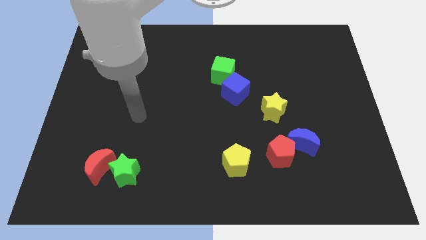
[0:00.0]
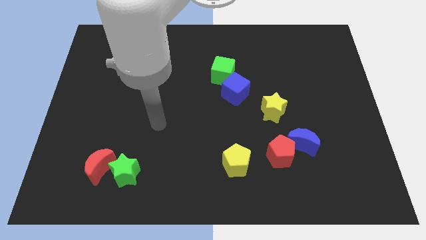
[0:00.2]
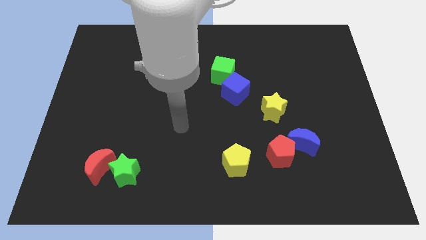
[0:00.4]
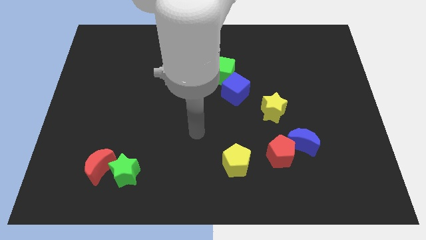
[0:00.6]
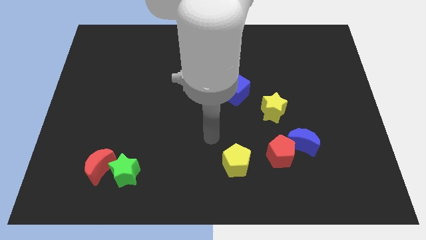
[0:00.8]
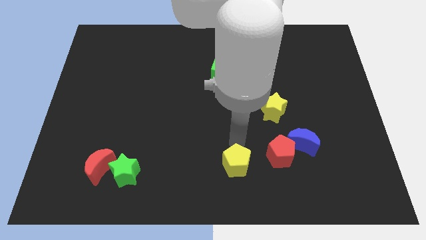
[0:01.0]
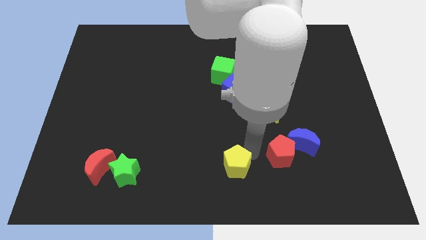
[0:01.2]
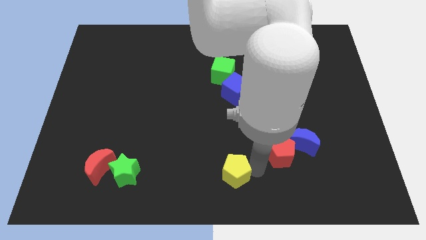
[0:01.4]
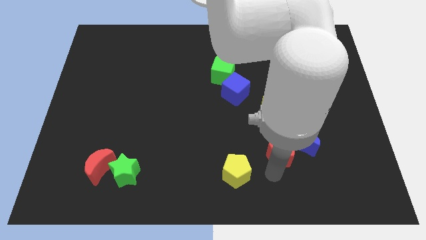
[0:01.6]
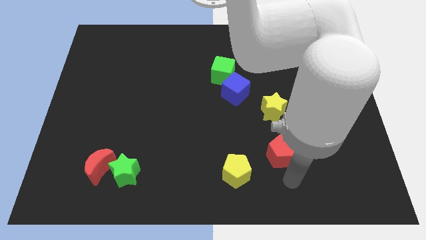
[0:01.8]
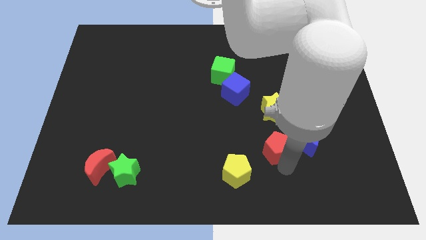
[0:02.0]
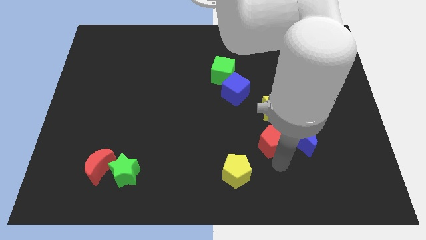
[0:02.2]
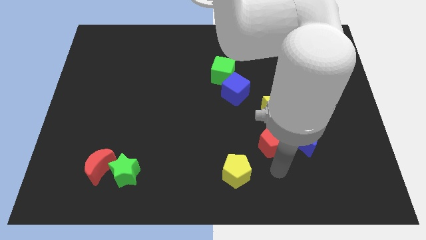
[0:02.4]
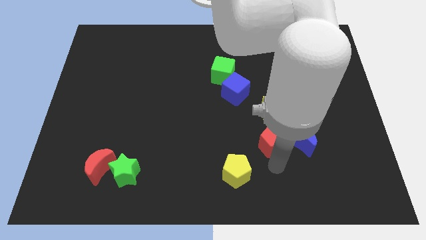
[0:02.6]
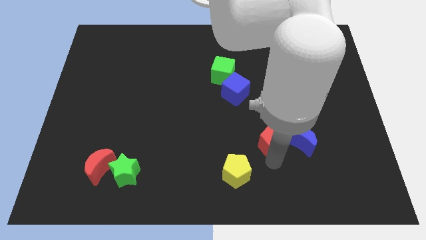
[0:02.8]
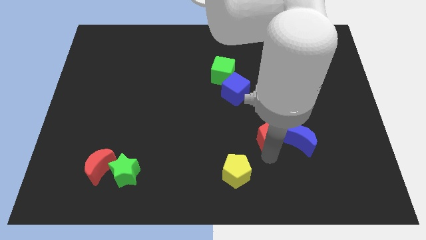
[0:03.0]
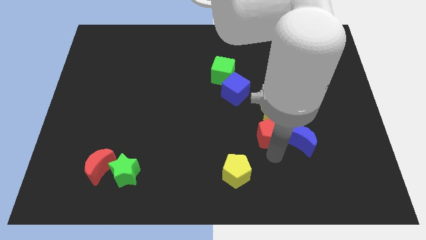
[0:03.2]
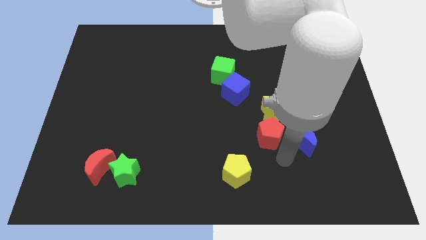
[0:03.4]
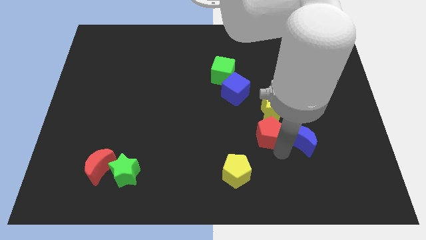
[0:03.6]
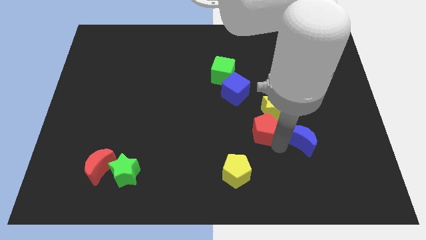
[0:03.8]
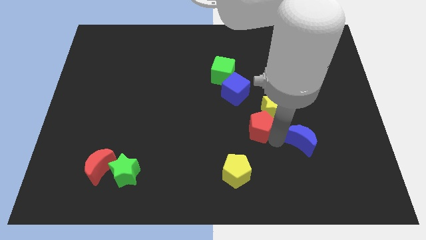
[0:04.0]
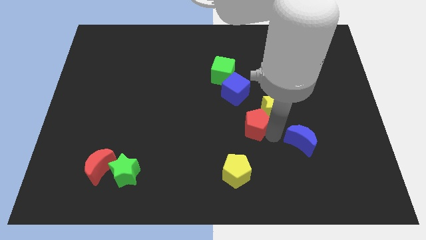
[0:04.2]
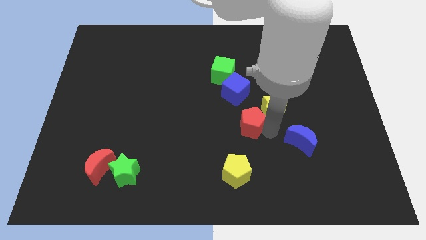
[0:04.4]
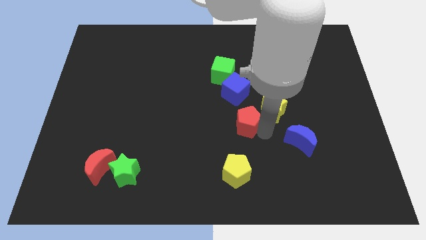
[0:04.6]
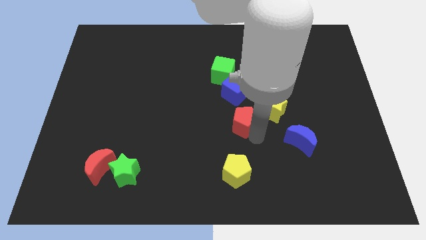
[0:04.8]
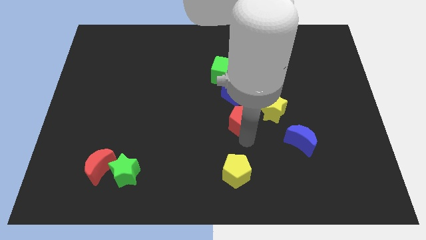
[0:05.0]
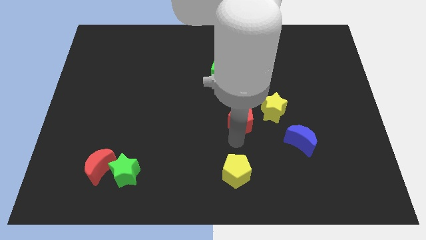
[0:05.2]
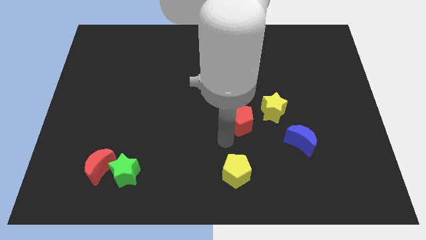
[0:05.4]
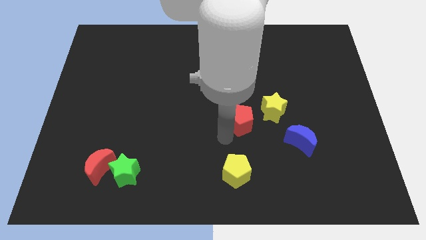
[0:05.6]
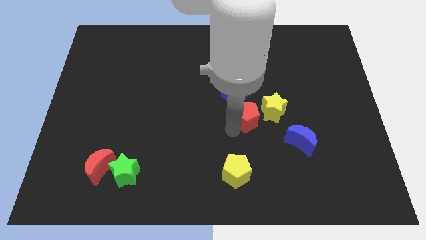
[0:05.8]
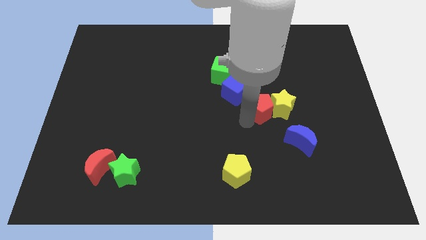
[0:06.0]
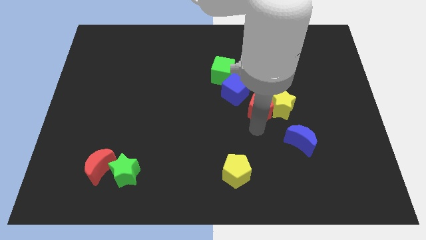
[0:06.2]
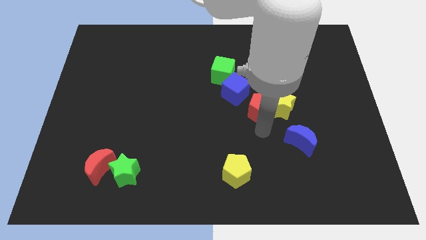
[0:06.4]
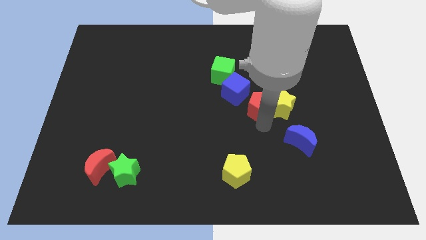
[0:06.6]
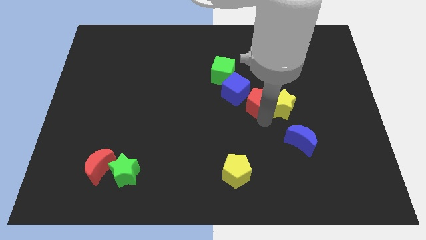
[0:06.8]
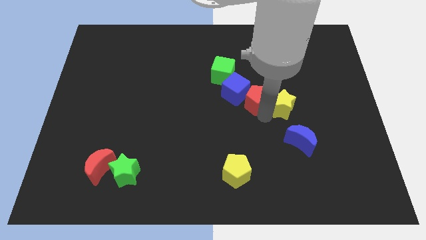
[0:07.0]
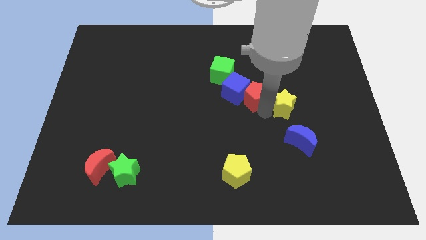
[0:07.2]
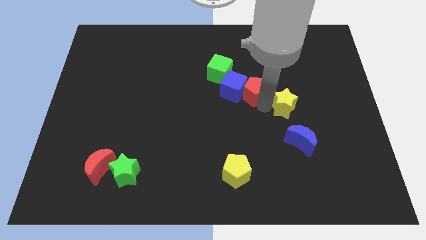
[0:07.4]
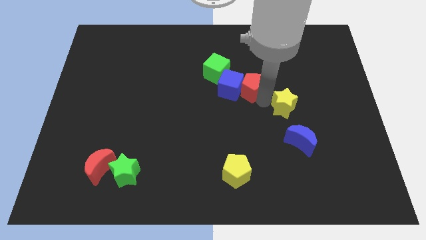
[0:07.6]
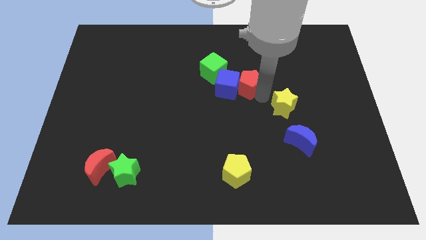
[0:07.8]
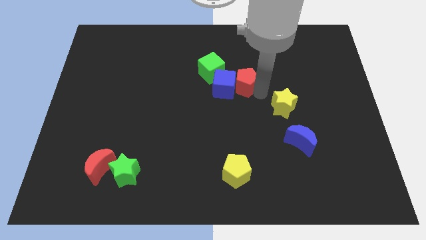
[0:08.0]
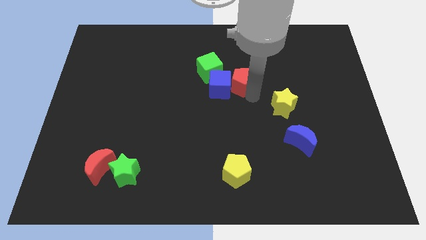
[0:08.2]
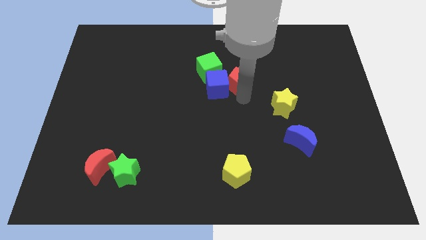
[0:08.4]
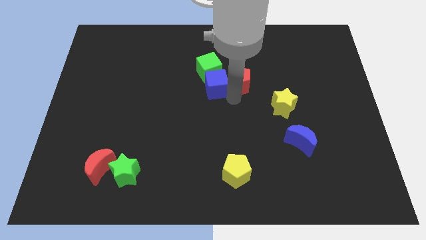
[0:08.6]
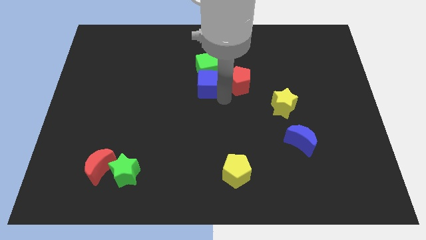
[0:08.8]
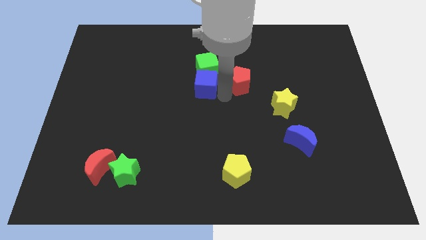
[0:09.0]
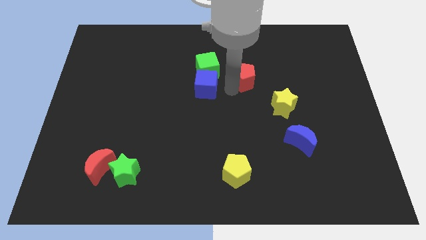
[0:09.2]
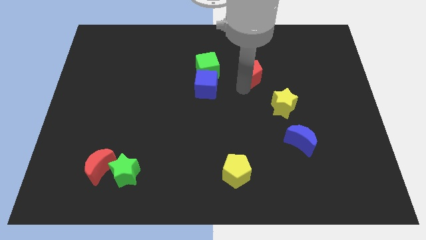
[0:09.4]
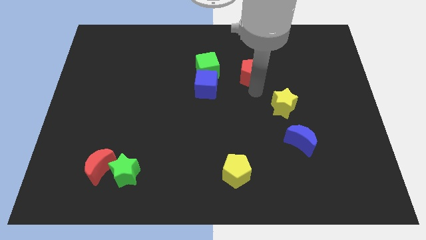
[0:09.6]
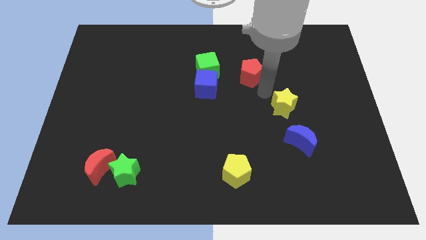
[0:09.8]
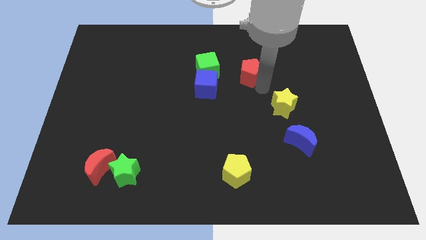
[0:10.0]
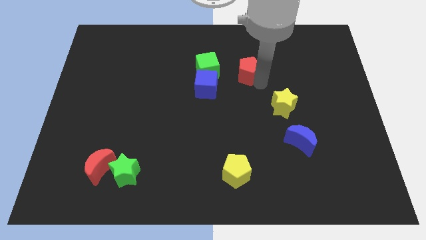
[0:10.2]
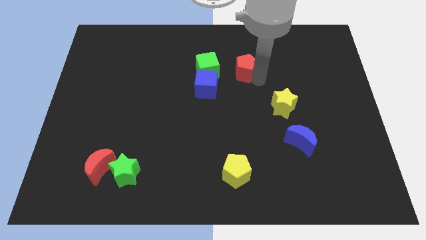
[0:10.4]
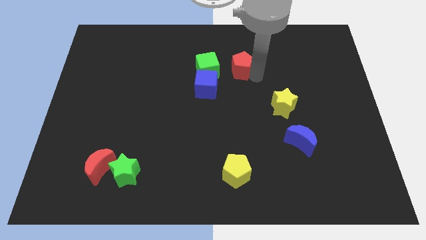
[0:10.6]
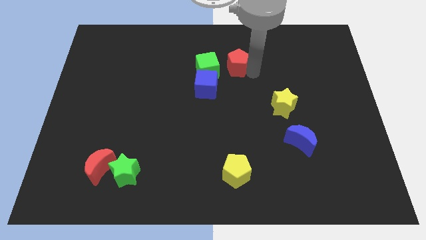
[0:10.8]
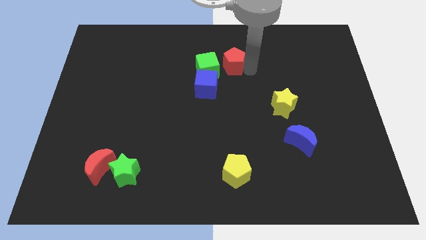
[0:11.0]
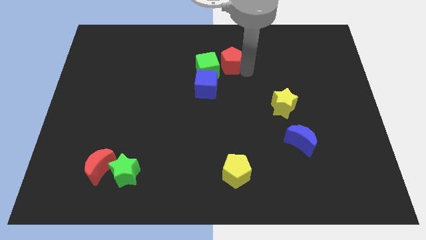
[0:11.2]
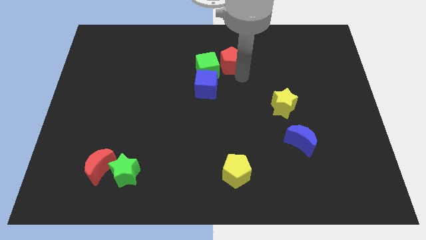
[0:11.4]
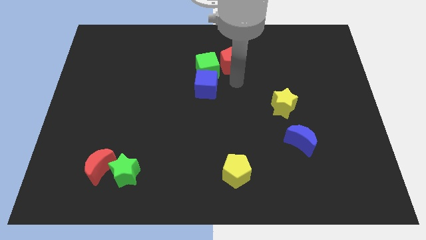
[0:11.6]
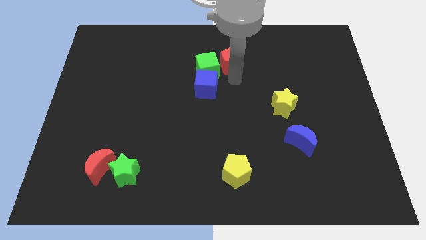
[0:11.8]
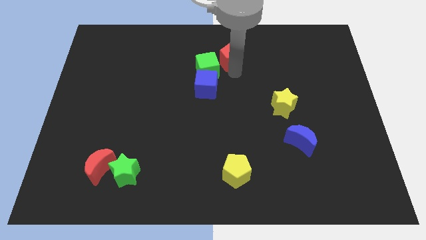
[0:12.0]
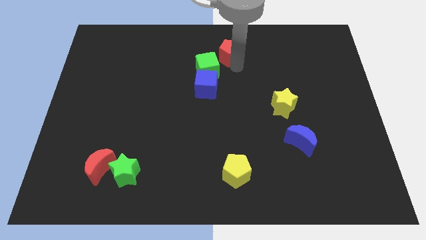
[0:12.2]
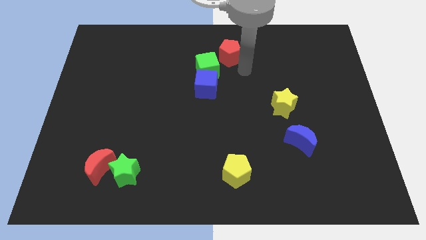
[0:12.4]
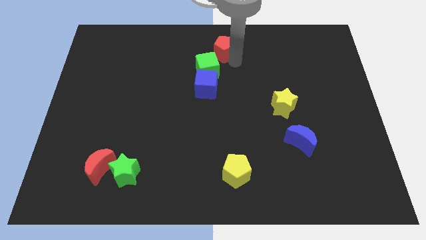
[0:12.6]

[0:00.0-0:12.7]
put the red pentagon to the top
